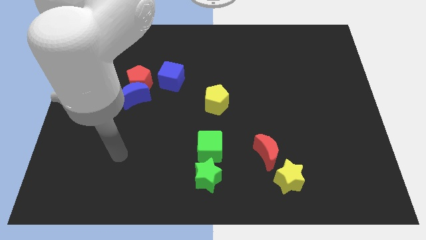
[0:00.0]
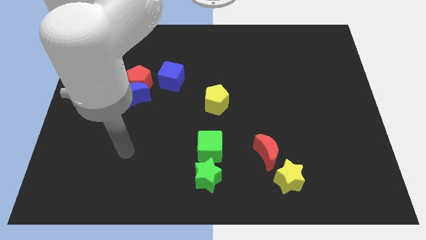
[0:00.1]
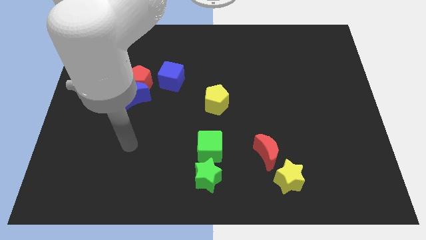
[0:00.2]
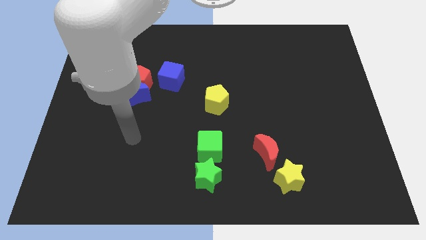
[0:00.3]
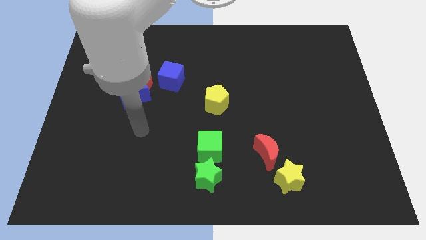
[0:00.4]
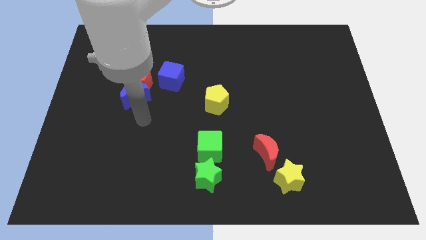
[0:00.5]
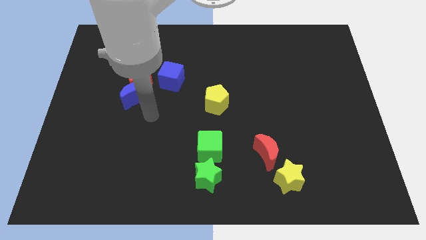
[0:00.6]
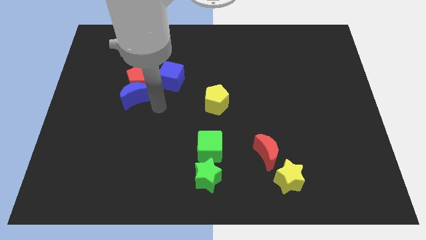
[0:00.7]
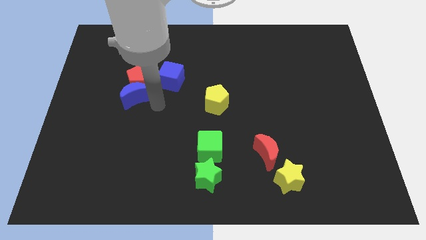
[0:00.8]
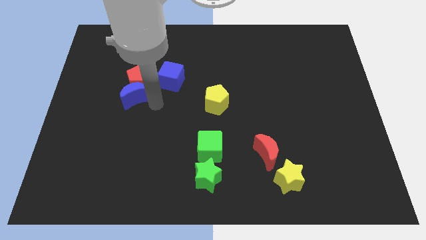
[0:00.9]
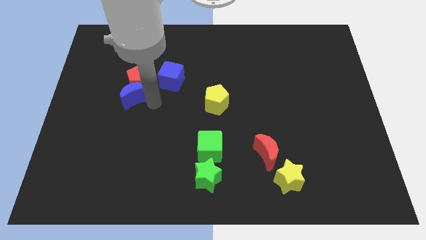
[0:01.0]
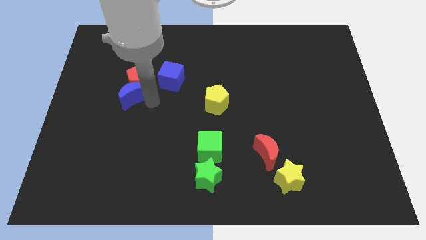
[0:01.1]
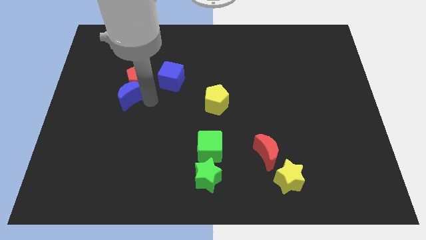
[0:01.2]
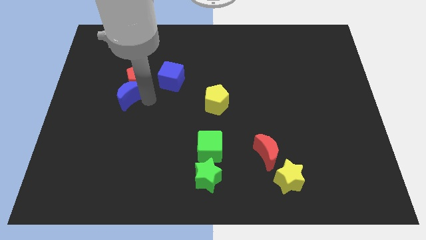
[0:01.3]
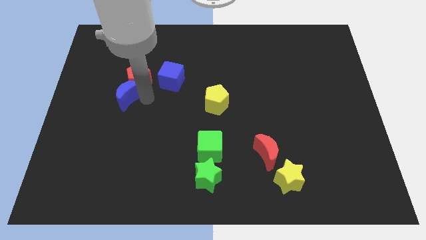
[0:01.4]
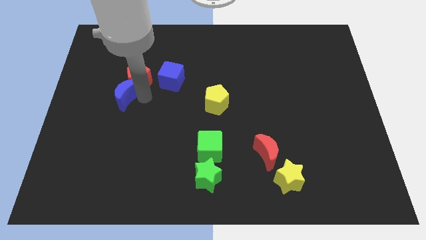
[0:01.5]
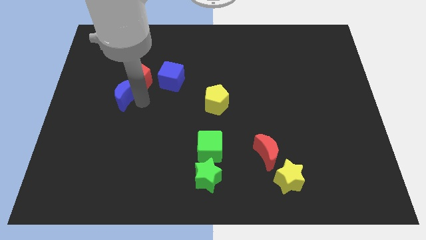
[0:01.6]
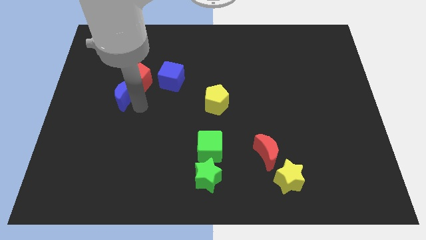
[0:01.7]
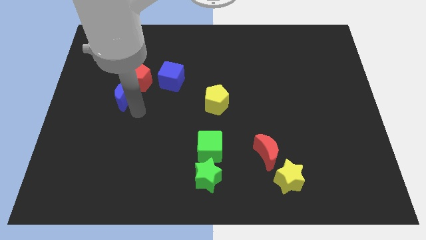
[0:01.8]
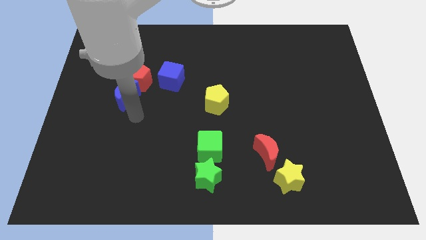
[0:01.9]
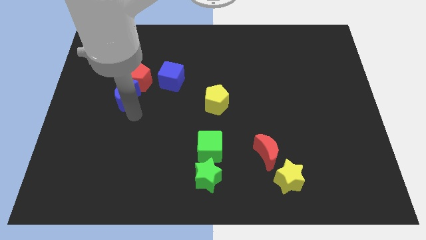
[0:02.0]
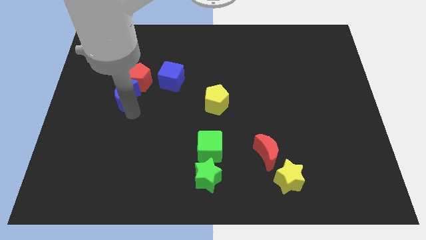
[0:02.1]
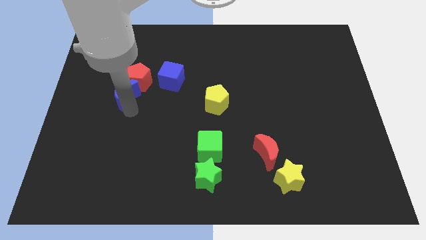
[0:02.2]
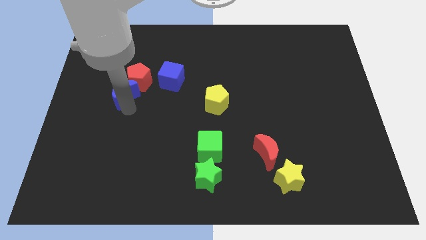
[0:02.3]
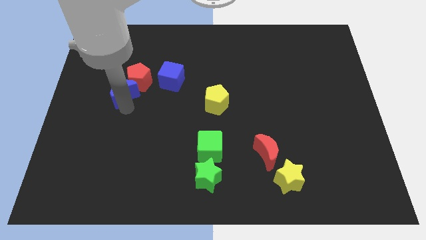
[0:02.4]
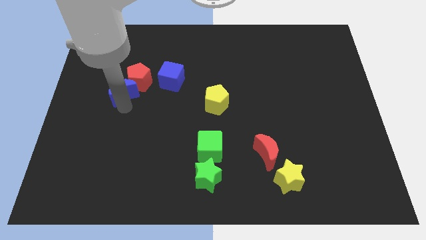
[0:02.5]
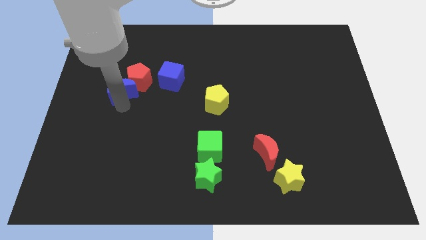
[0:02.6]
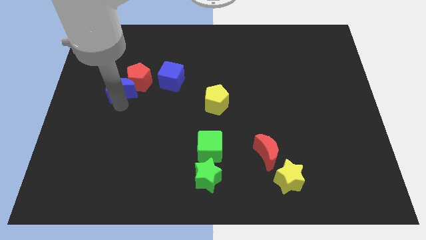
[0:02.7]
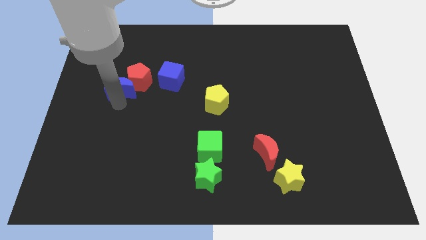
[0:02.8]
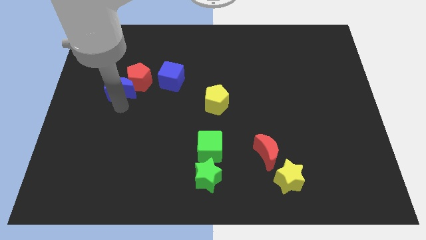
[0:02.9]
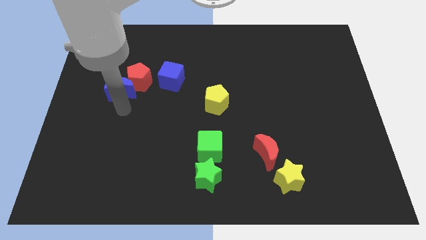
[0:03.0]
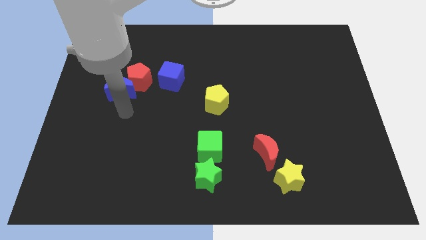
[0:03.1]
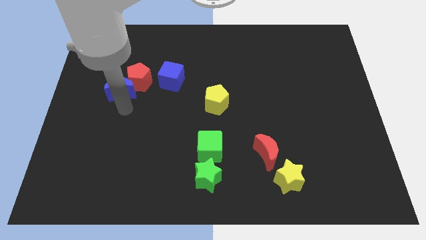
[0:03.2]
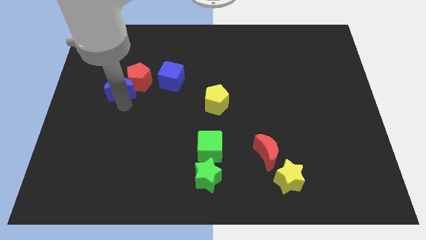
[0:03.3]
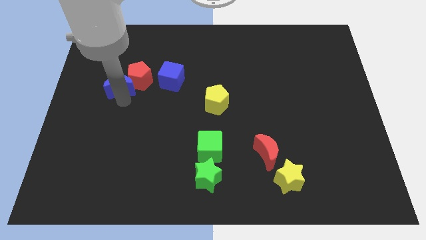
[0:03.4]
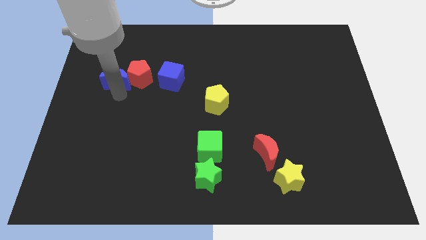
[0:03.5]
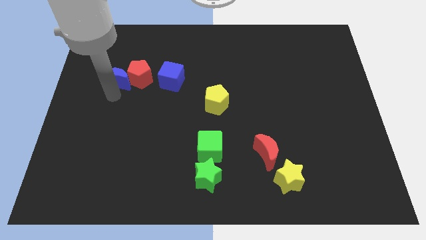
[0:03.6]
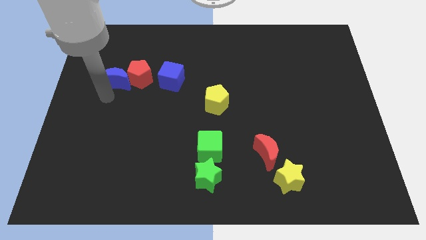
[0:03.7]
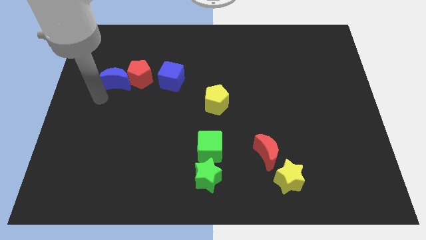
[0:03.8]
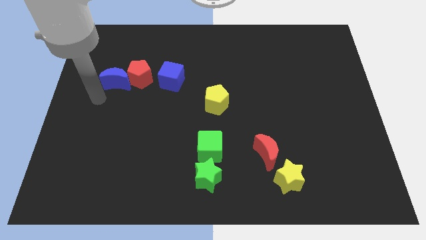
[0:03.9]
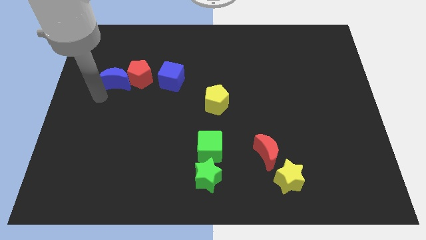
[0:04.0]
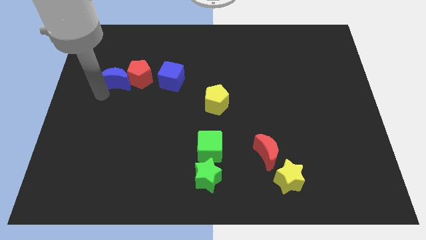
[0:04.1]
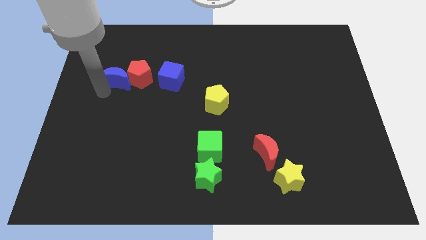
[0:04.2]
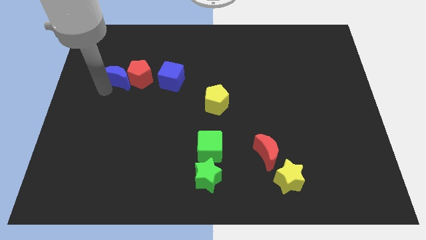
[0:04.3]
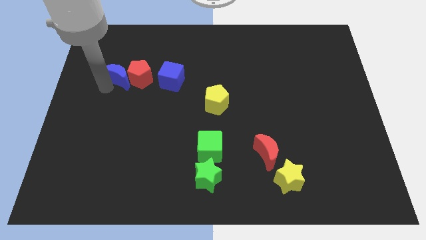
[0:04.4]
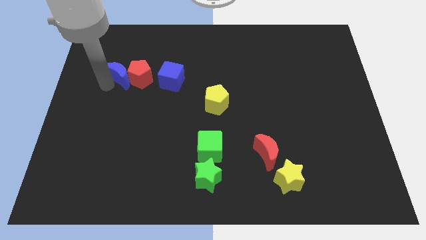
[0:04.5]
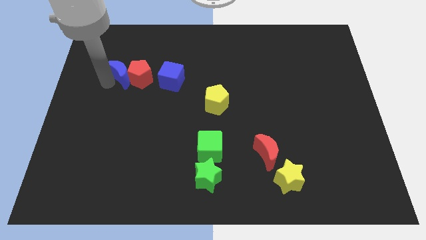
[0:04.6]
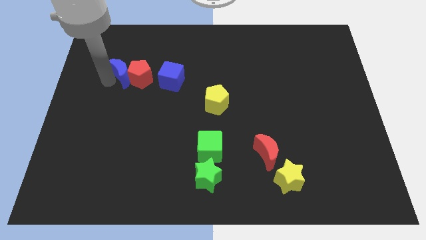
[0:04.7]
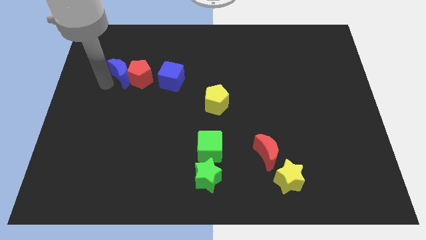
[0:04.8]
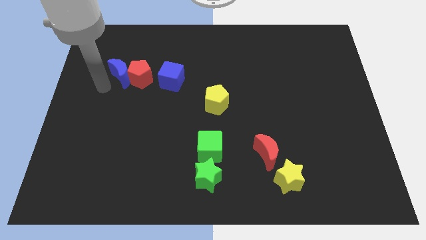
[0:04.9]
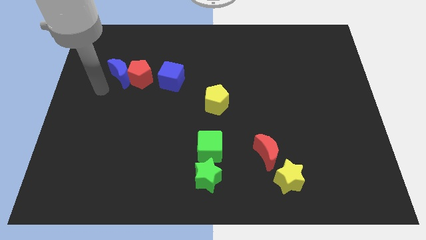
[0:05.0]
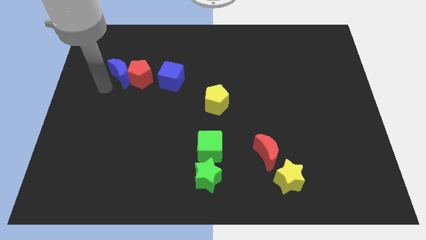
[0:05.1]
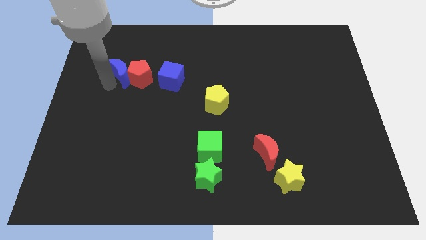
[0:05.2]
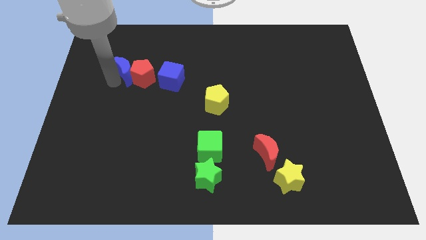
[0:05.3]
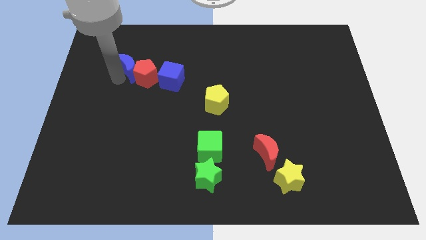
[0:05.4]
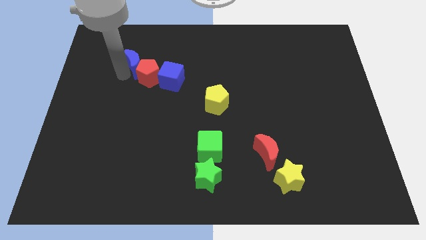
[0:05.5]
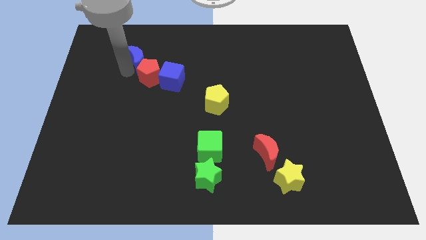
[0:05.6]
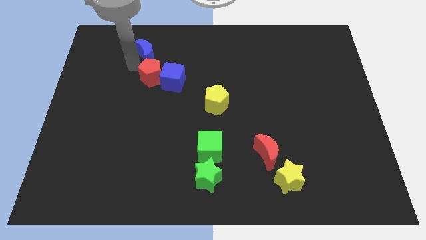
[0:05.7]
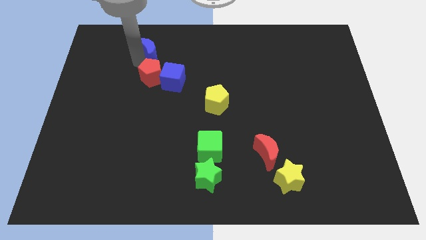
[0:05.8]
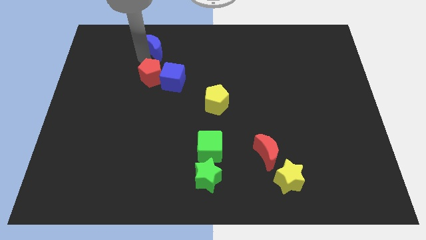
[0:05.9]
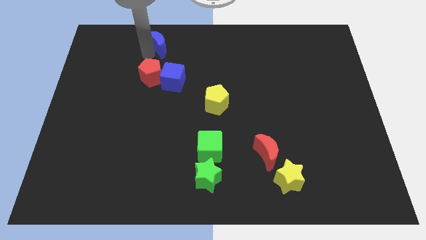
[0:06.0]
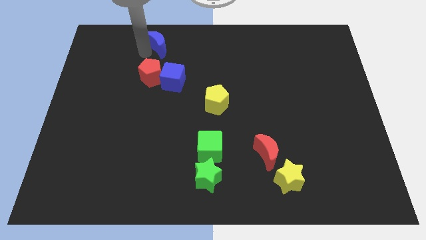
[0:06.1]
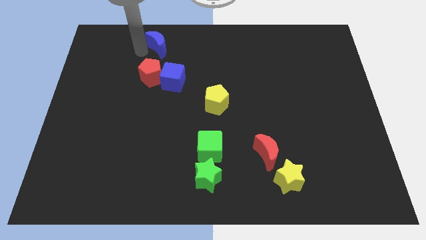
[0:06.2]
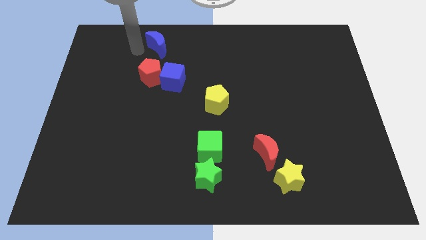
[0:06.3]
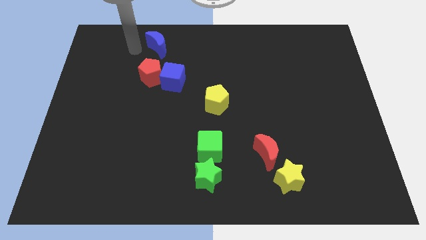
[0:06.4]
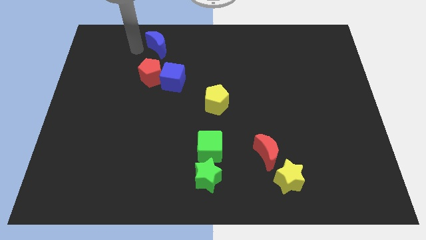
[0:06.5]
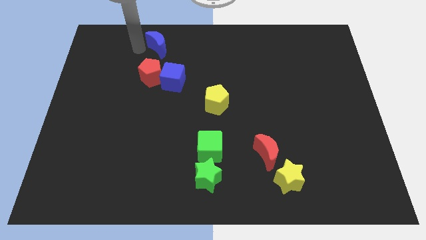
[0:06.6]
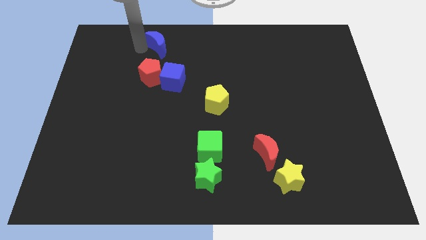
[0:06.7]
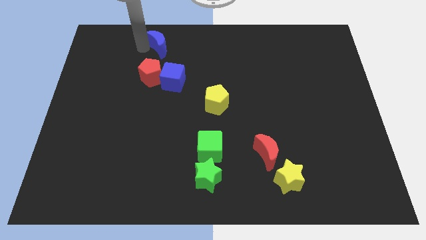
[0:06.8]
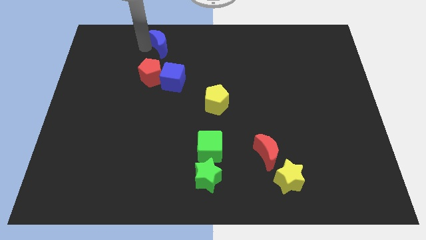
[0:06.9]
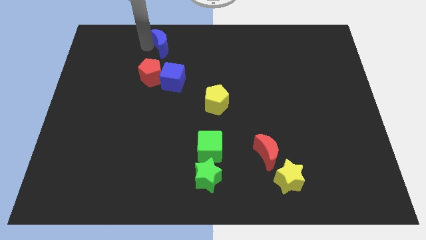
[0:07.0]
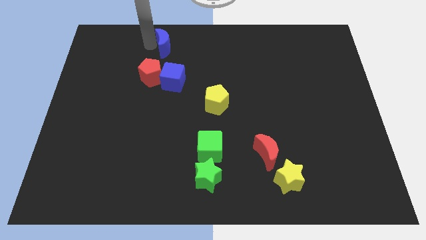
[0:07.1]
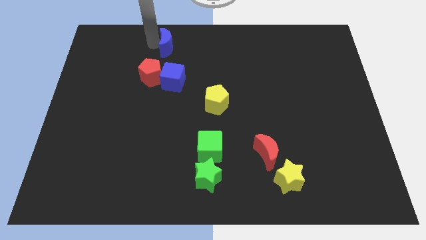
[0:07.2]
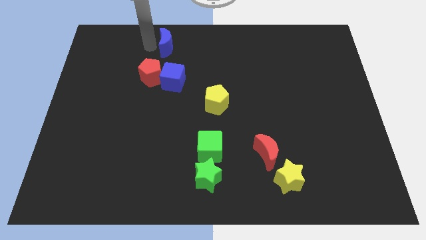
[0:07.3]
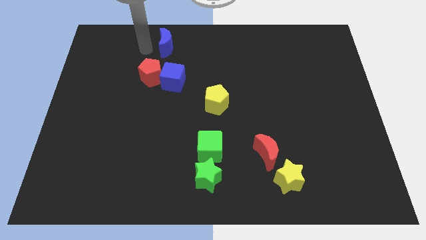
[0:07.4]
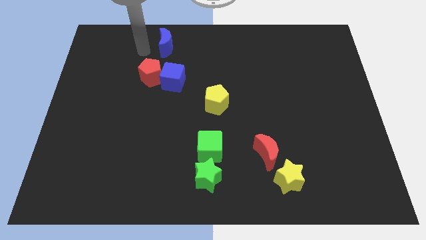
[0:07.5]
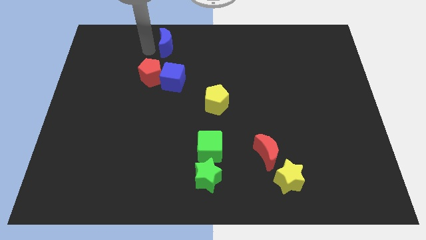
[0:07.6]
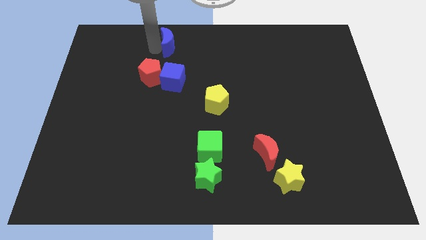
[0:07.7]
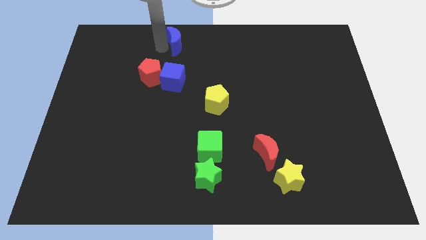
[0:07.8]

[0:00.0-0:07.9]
push the blue moon to the top side
